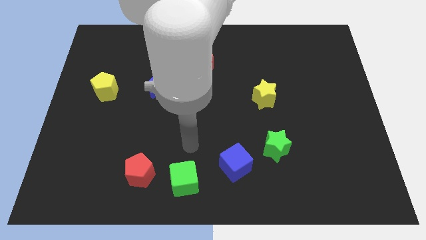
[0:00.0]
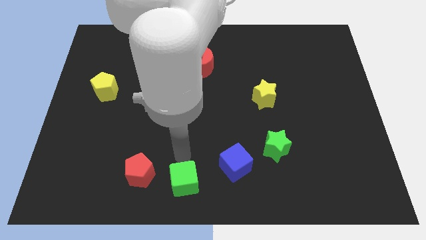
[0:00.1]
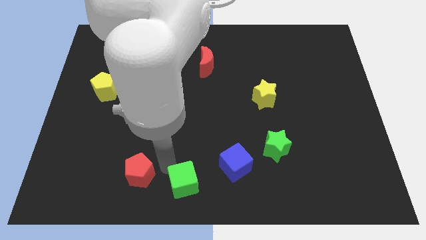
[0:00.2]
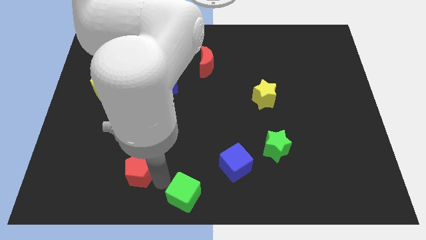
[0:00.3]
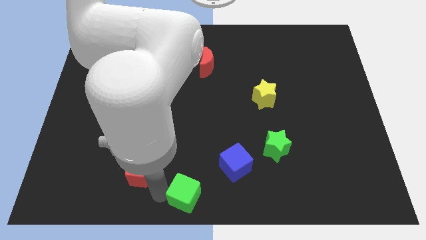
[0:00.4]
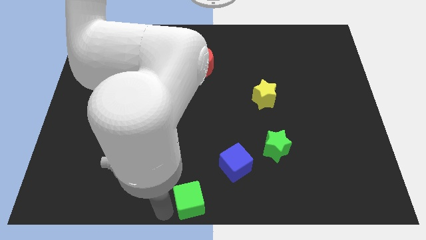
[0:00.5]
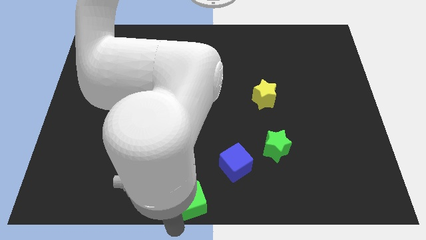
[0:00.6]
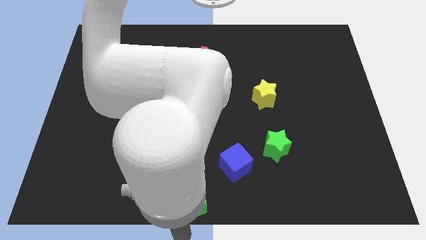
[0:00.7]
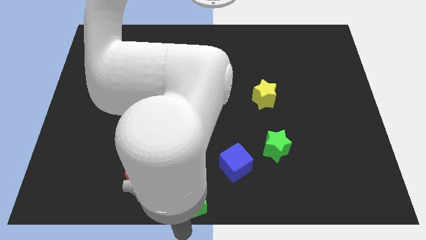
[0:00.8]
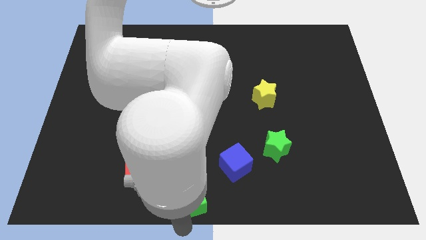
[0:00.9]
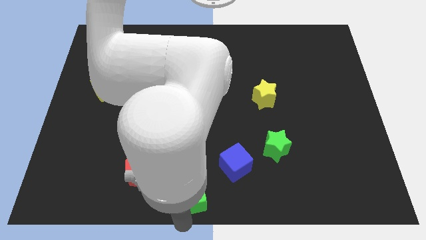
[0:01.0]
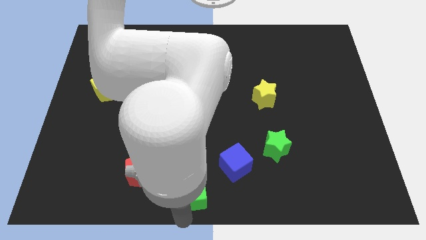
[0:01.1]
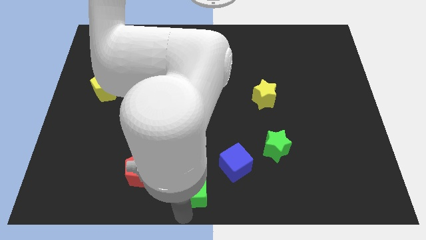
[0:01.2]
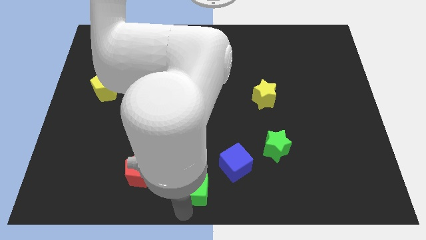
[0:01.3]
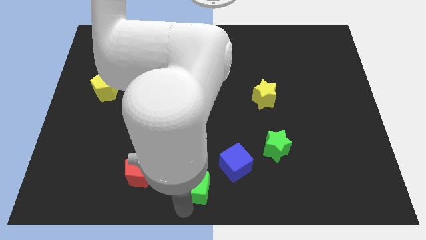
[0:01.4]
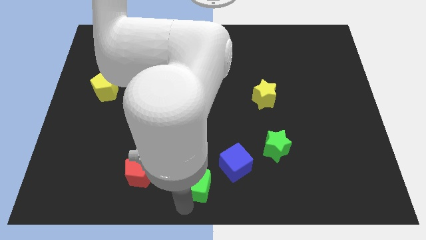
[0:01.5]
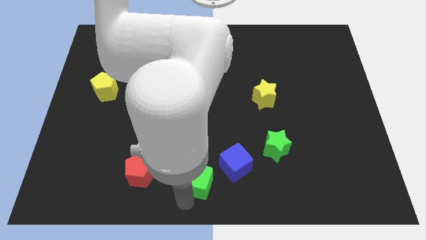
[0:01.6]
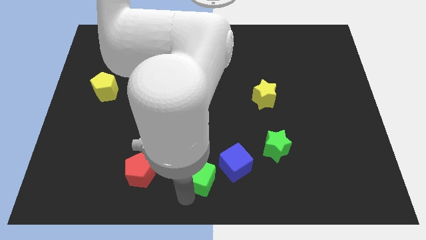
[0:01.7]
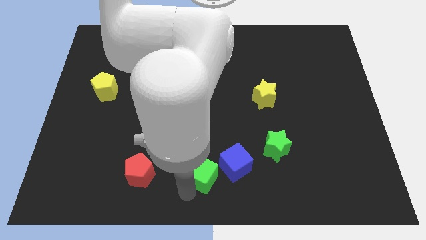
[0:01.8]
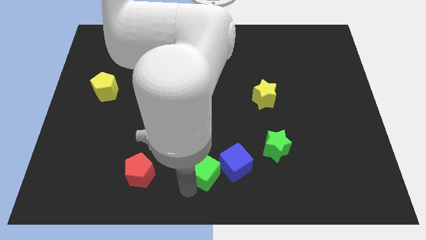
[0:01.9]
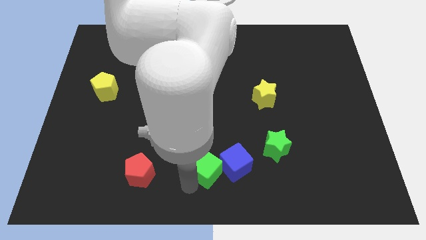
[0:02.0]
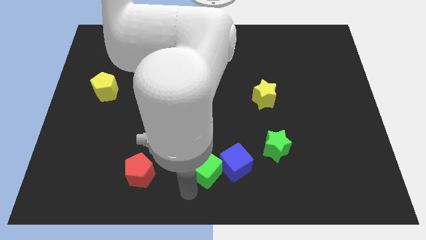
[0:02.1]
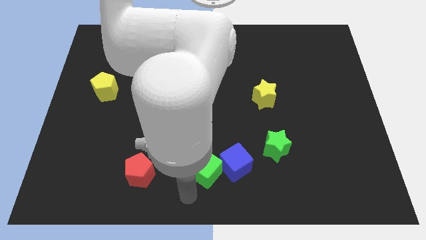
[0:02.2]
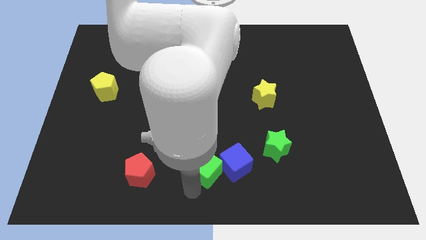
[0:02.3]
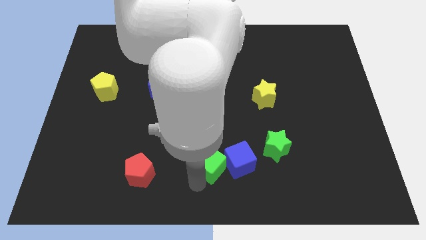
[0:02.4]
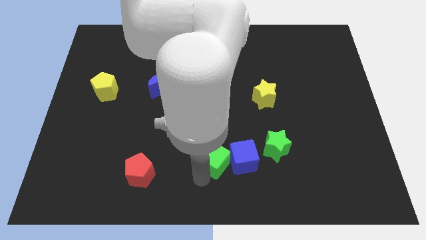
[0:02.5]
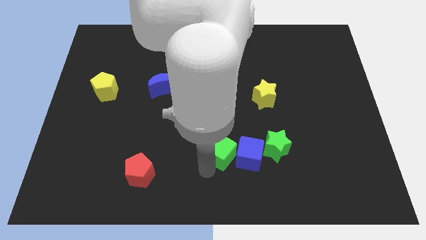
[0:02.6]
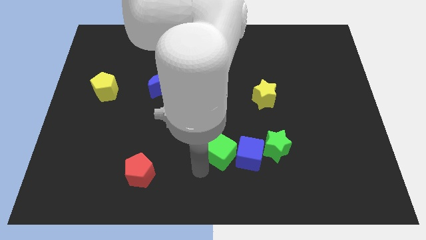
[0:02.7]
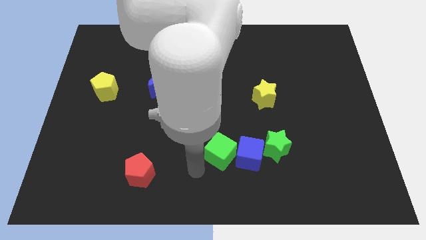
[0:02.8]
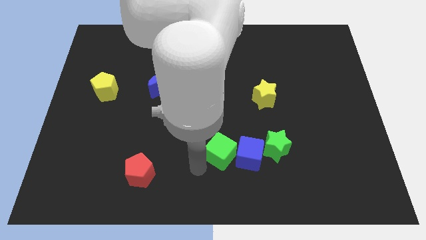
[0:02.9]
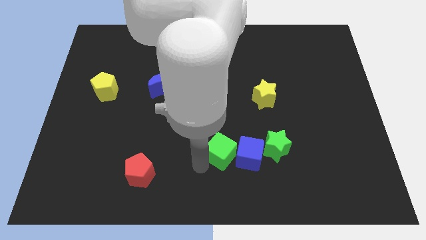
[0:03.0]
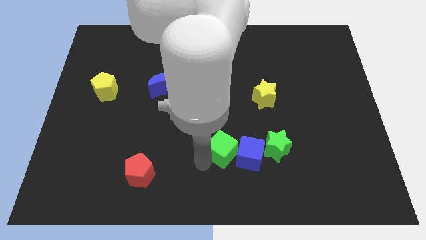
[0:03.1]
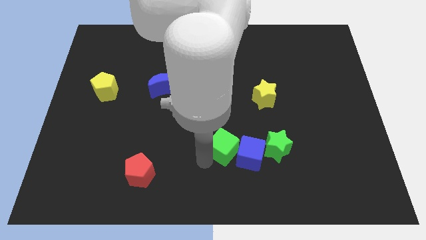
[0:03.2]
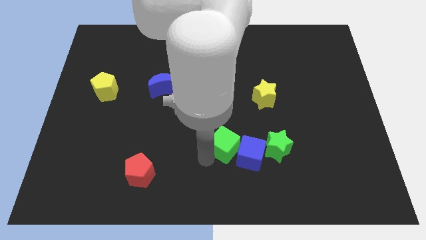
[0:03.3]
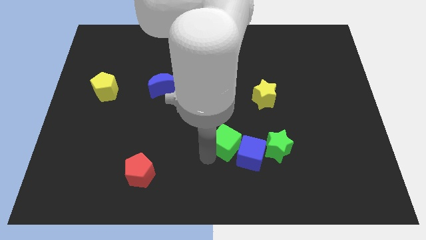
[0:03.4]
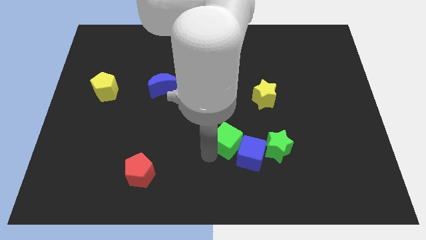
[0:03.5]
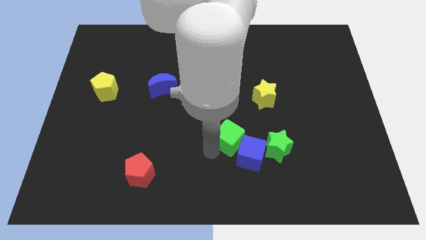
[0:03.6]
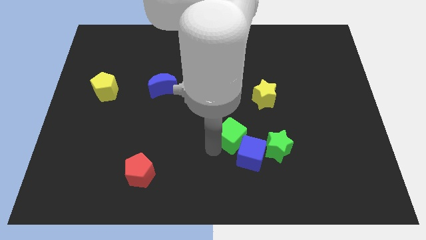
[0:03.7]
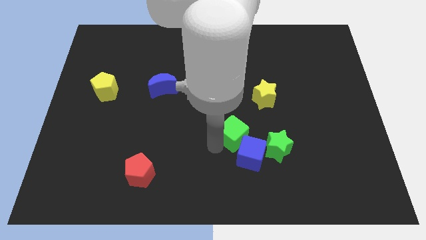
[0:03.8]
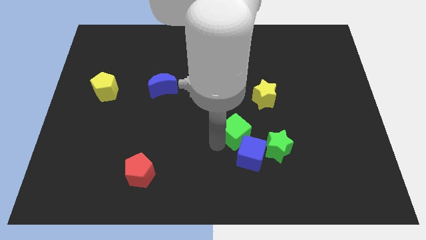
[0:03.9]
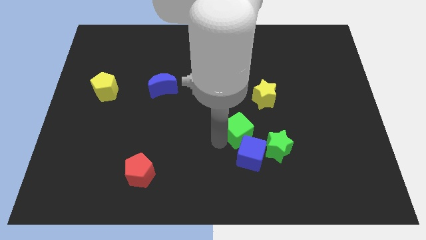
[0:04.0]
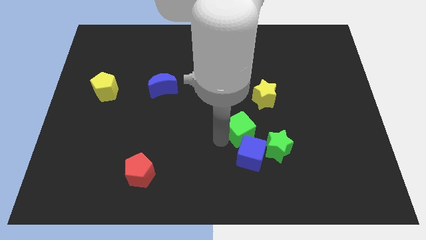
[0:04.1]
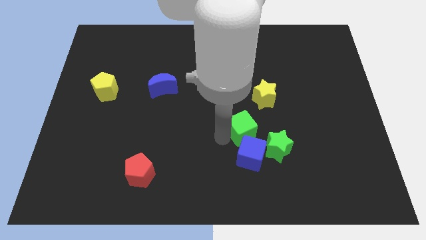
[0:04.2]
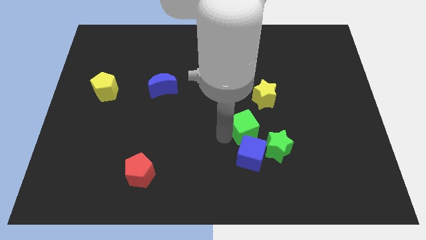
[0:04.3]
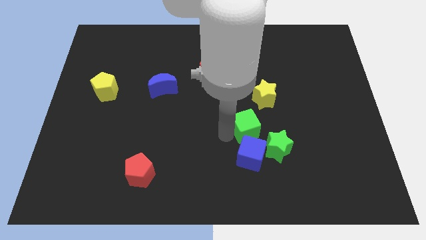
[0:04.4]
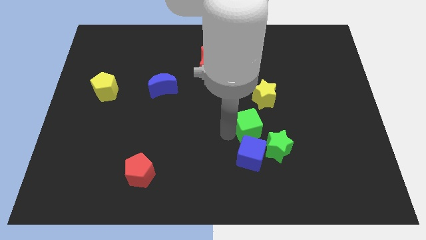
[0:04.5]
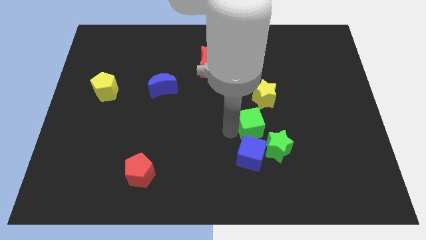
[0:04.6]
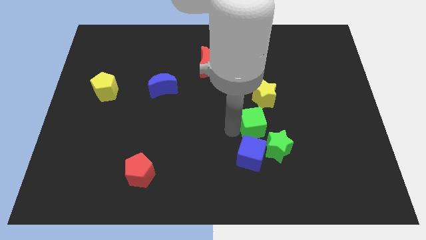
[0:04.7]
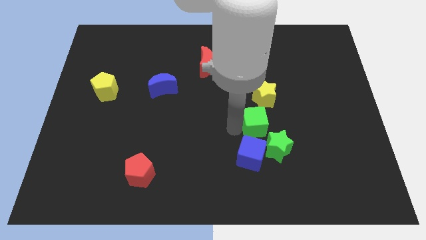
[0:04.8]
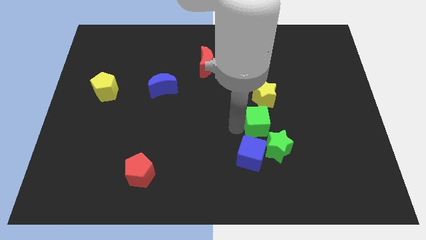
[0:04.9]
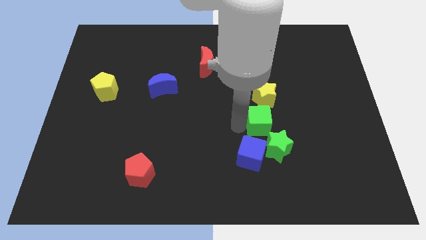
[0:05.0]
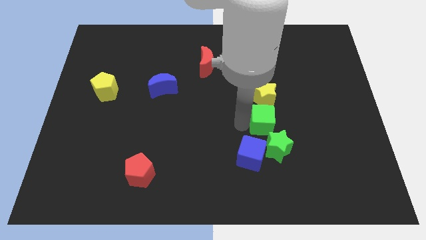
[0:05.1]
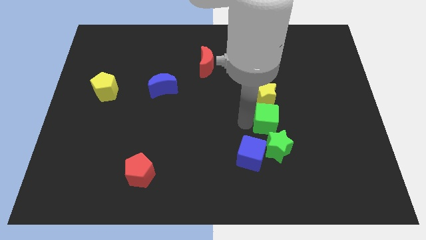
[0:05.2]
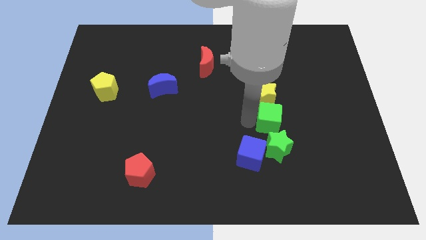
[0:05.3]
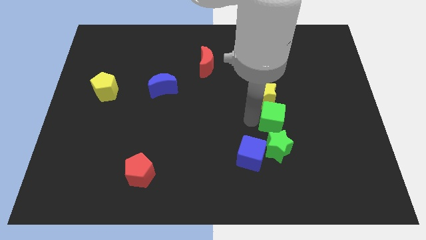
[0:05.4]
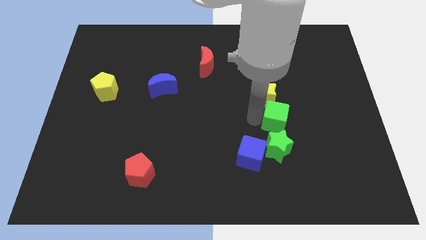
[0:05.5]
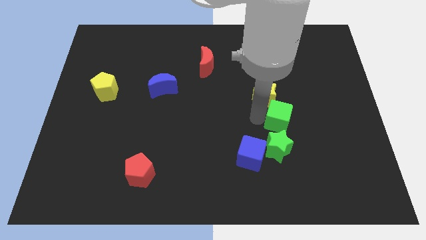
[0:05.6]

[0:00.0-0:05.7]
slide the green cube diagonally up and to the right of the green star

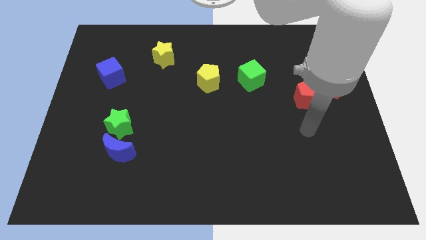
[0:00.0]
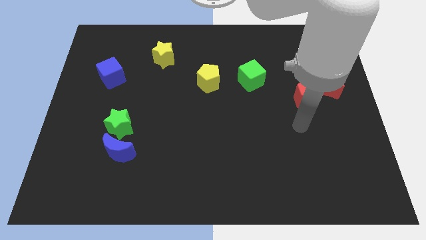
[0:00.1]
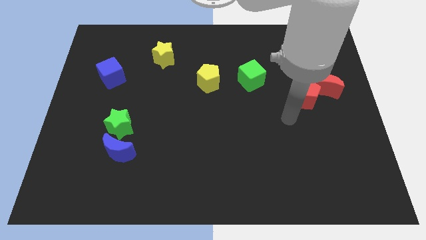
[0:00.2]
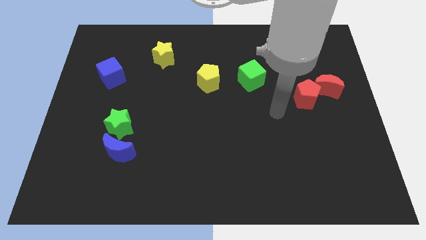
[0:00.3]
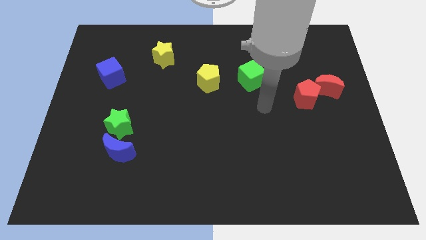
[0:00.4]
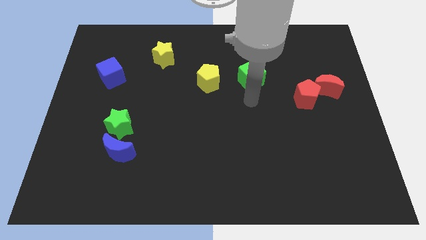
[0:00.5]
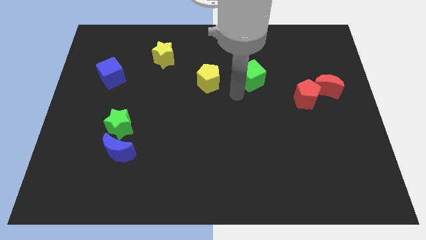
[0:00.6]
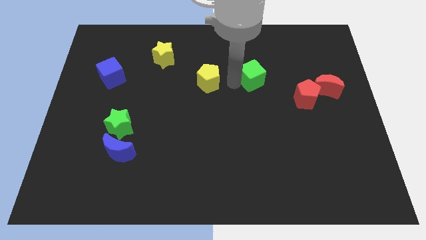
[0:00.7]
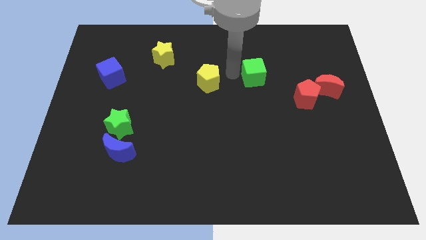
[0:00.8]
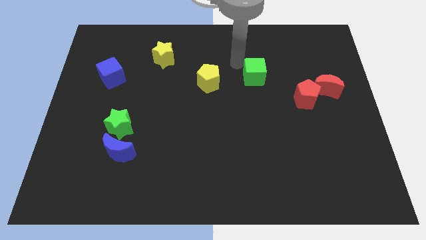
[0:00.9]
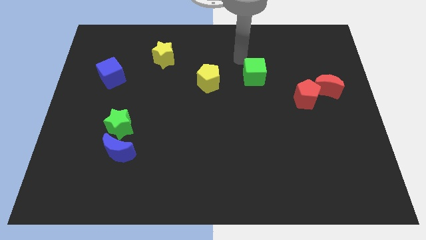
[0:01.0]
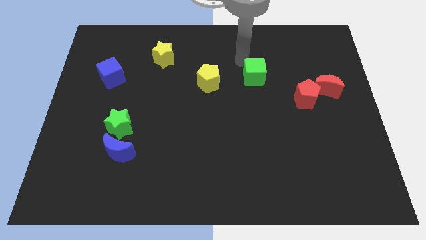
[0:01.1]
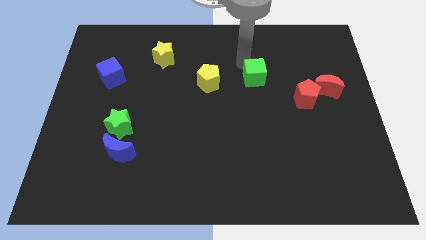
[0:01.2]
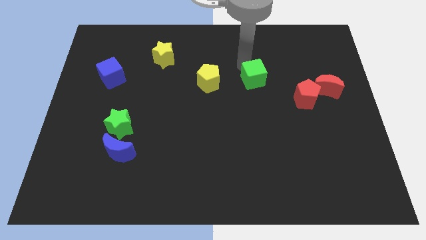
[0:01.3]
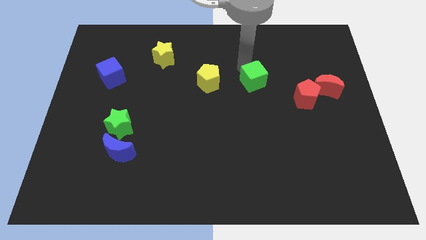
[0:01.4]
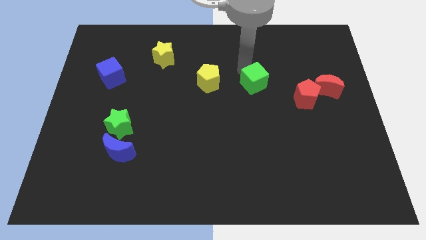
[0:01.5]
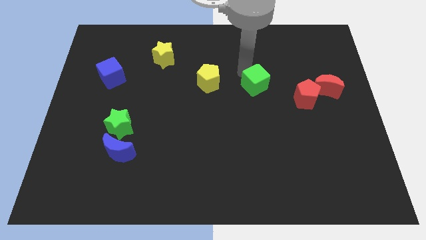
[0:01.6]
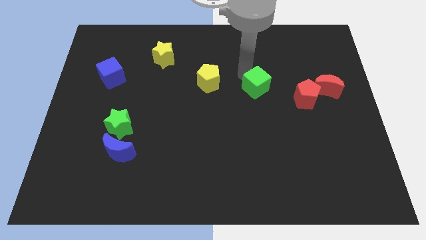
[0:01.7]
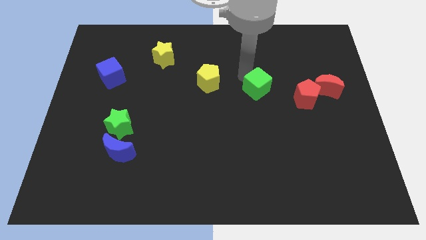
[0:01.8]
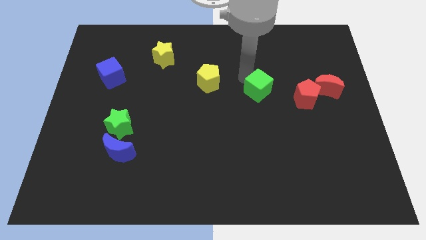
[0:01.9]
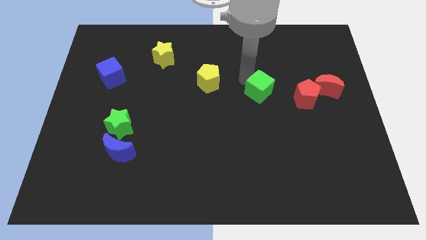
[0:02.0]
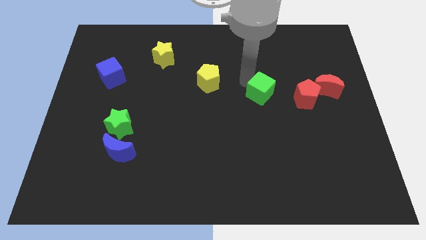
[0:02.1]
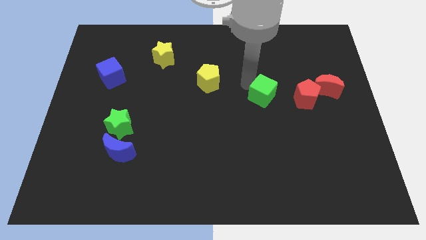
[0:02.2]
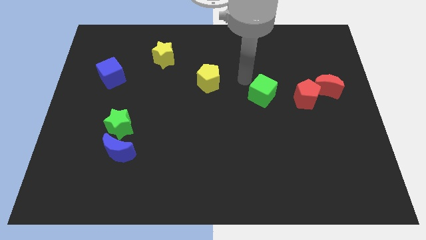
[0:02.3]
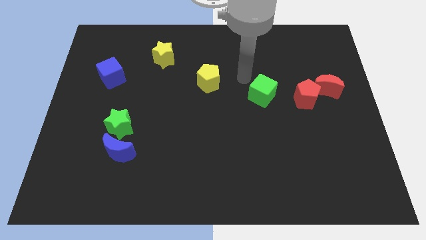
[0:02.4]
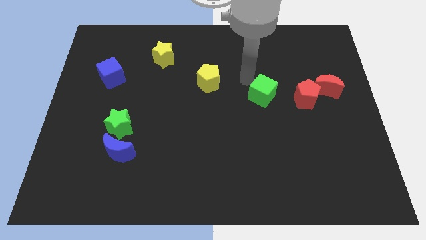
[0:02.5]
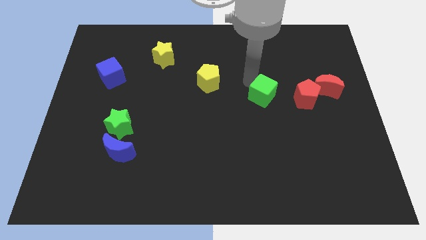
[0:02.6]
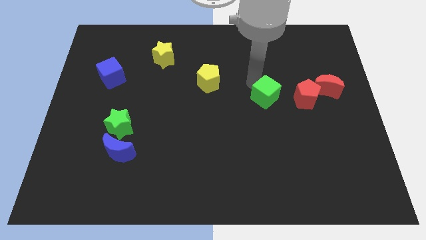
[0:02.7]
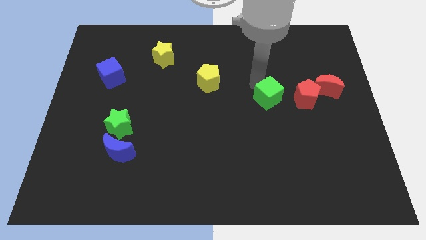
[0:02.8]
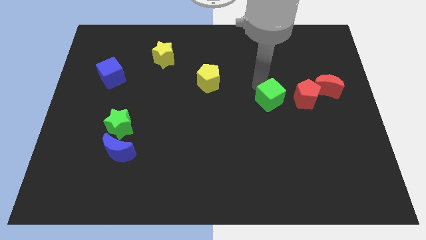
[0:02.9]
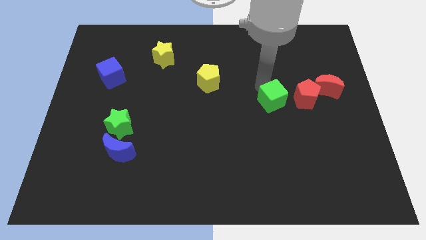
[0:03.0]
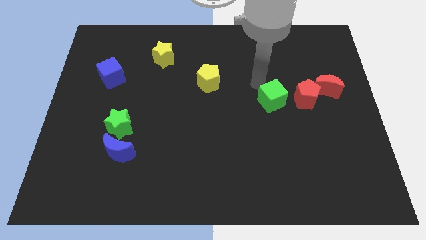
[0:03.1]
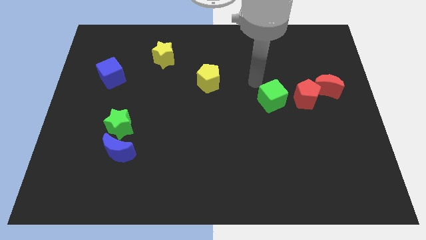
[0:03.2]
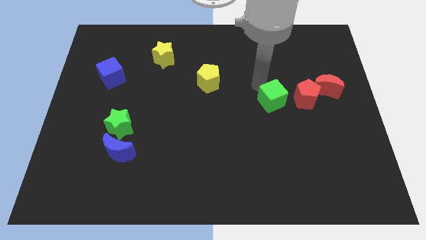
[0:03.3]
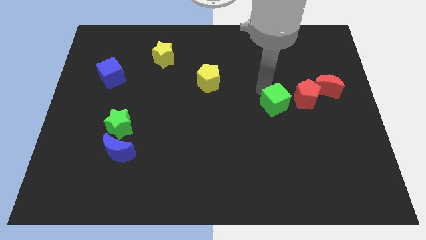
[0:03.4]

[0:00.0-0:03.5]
push the green cube to the bottom left of the red pentagon
